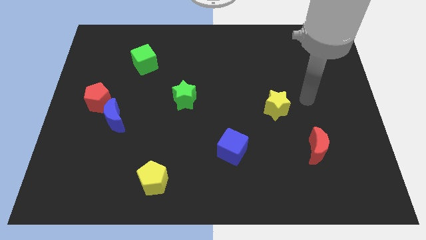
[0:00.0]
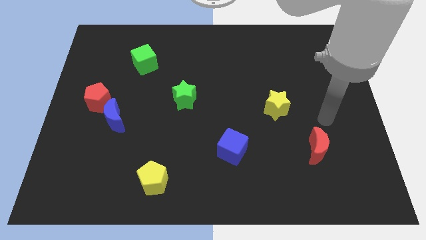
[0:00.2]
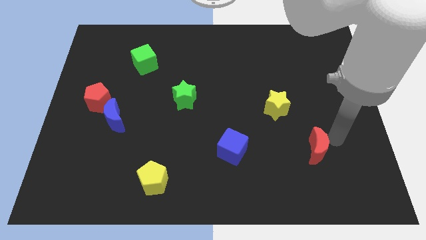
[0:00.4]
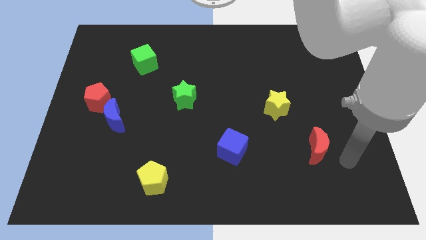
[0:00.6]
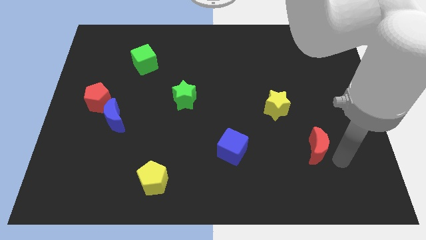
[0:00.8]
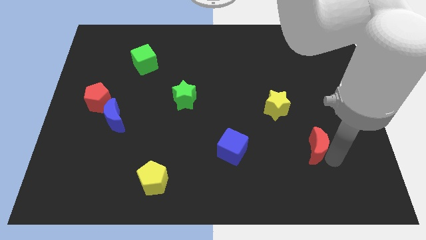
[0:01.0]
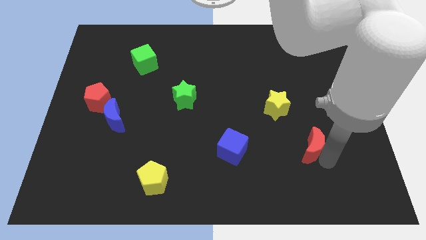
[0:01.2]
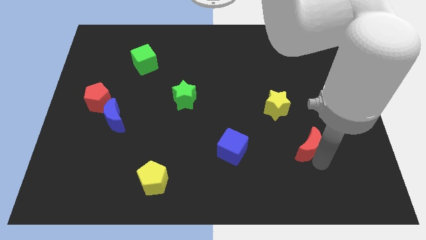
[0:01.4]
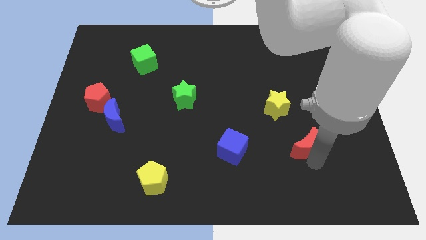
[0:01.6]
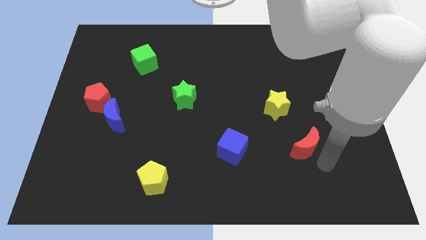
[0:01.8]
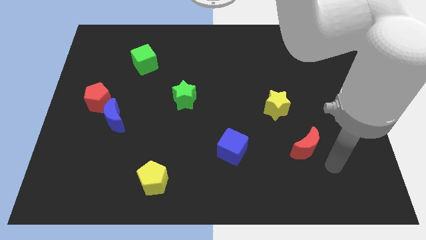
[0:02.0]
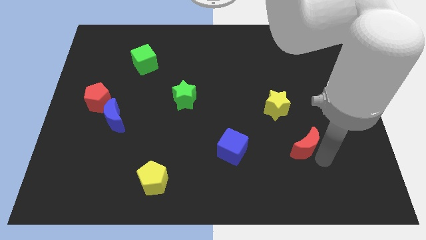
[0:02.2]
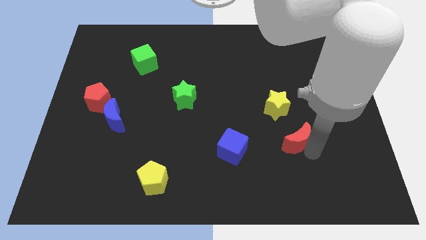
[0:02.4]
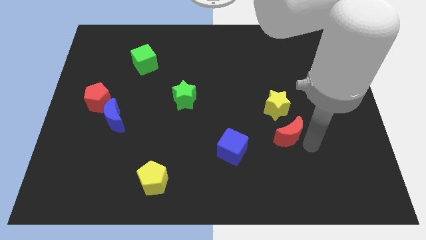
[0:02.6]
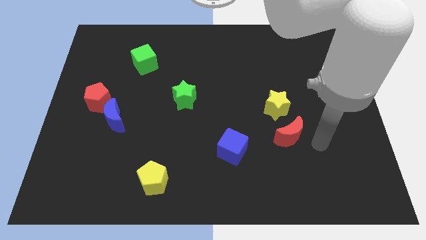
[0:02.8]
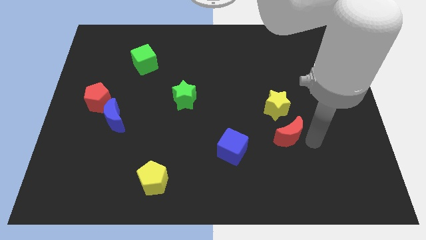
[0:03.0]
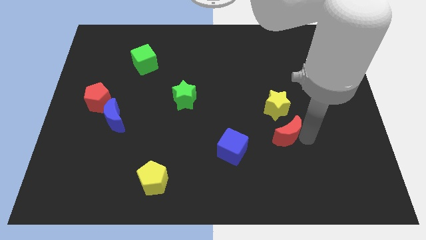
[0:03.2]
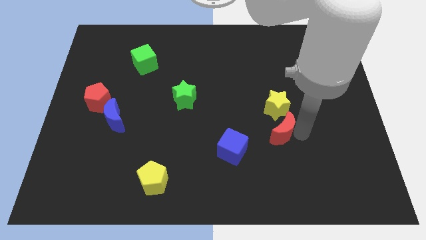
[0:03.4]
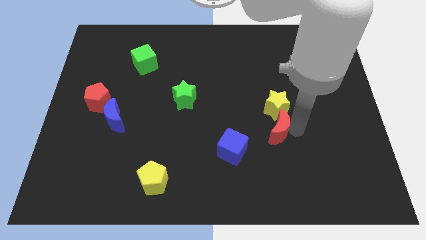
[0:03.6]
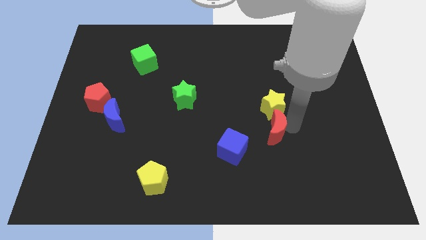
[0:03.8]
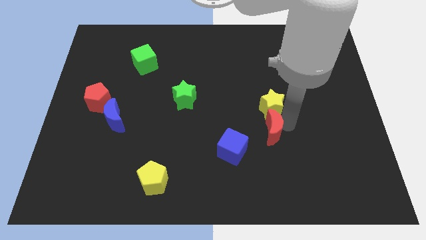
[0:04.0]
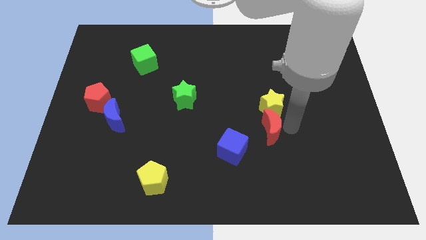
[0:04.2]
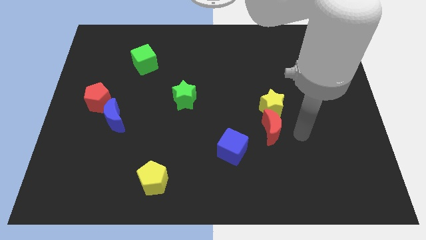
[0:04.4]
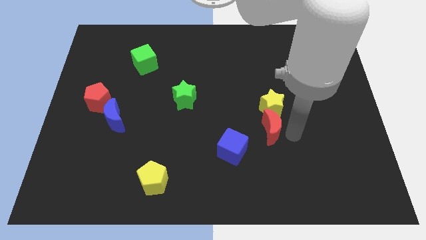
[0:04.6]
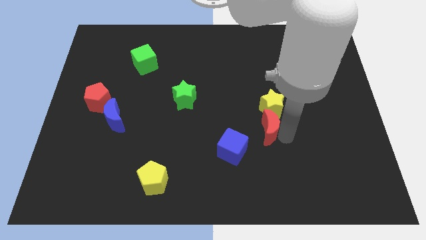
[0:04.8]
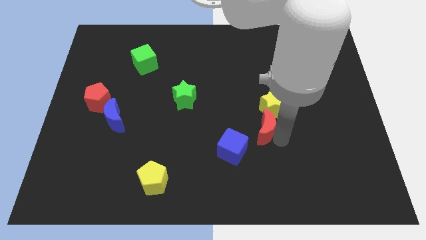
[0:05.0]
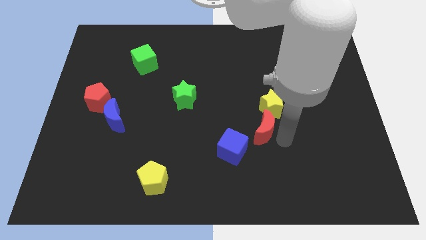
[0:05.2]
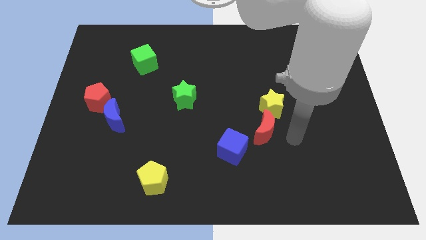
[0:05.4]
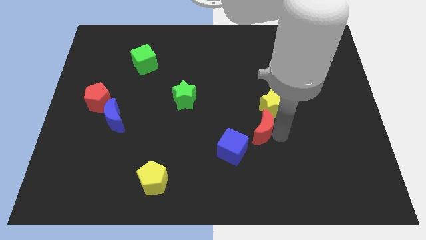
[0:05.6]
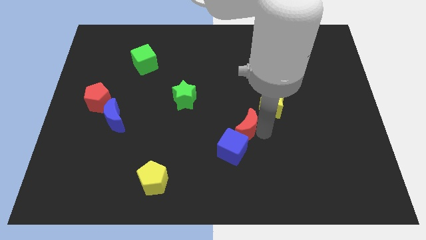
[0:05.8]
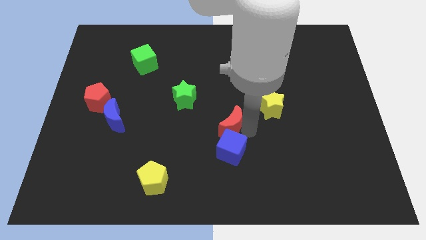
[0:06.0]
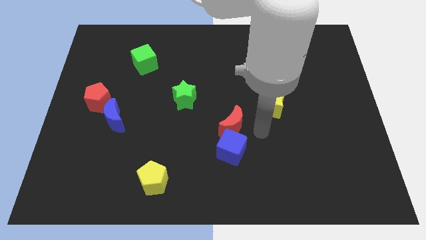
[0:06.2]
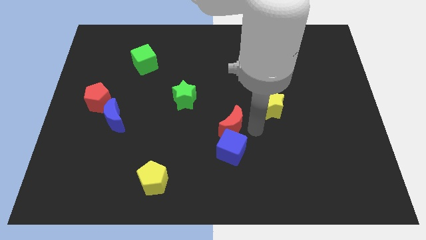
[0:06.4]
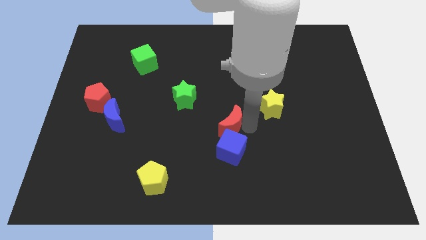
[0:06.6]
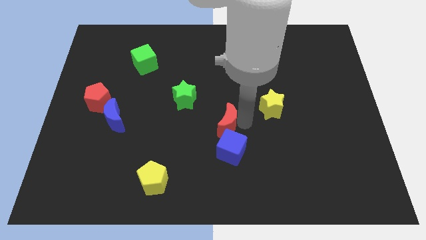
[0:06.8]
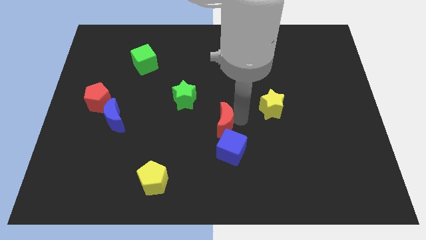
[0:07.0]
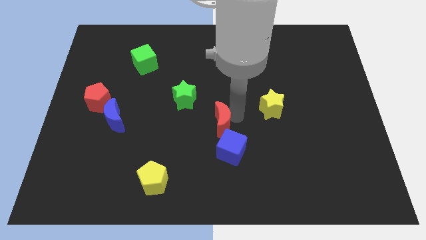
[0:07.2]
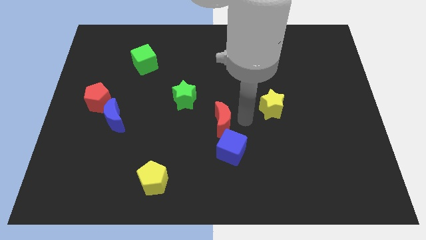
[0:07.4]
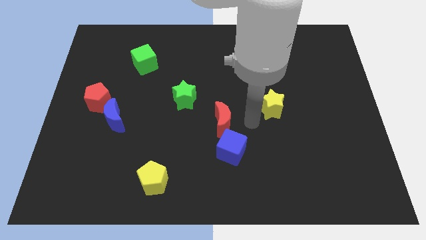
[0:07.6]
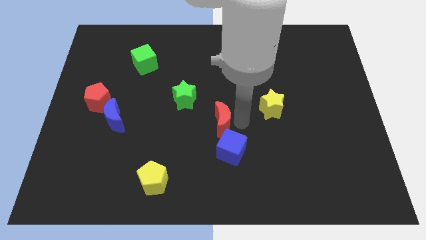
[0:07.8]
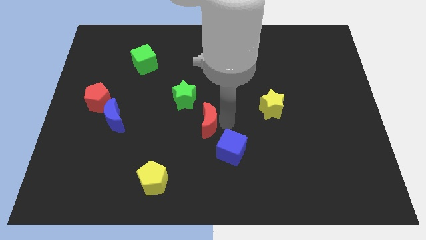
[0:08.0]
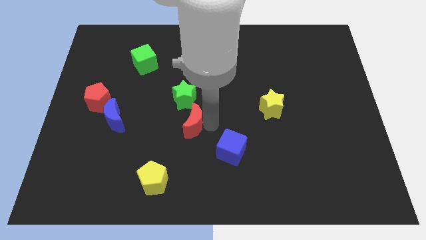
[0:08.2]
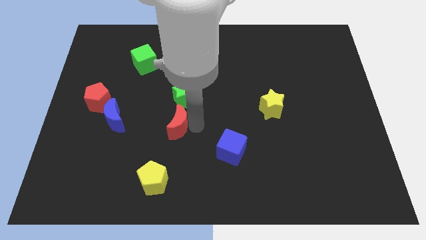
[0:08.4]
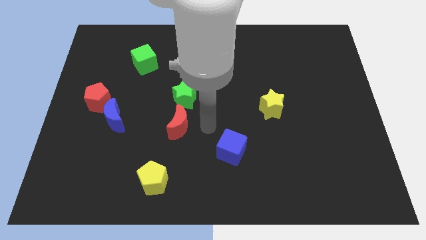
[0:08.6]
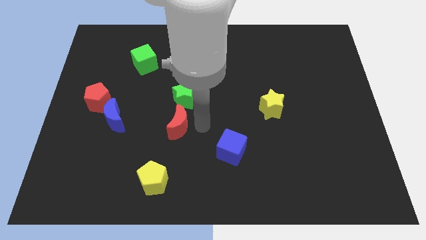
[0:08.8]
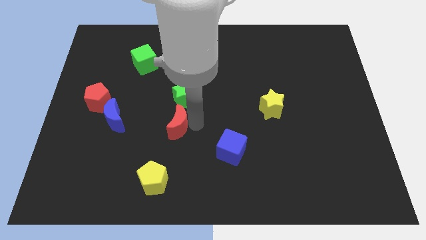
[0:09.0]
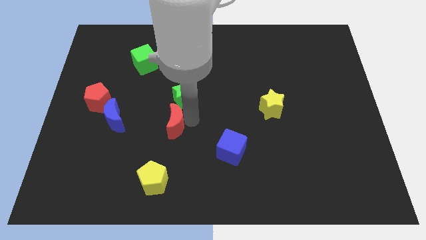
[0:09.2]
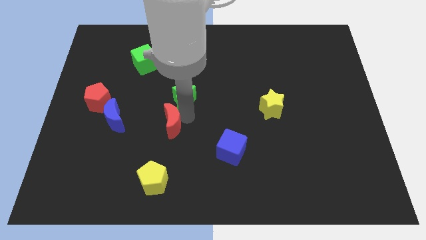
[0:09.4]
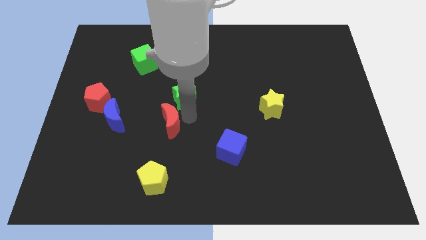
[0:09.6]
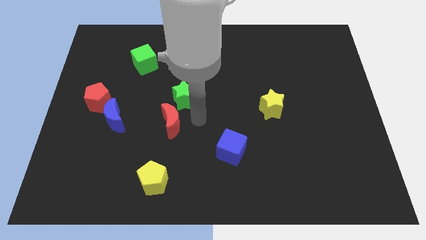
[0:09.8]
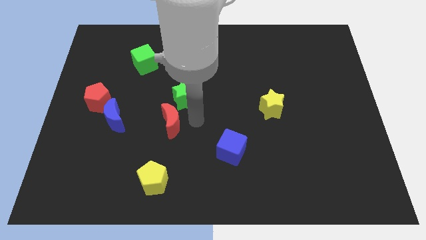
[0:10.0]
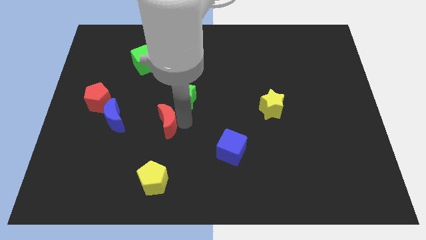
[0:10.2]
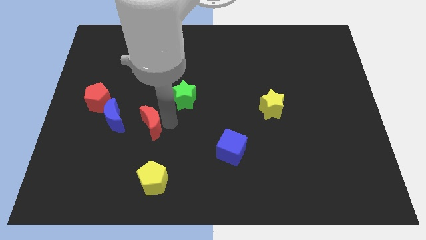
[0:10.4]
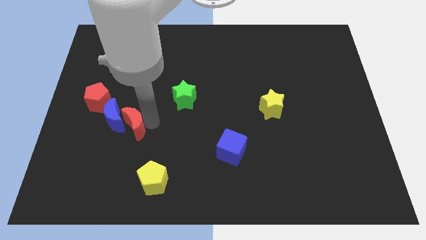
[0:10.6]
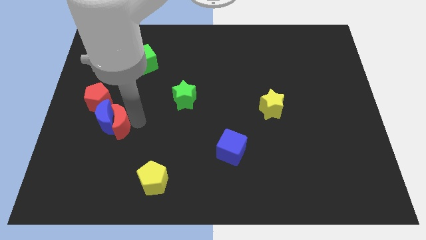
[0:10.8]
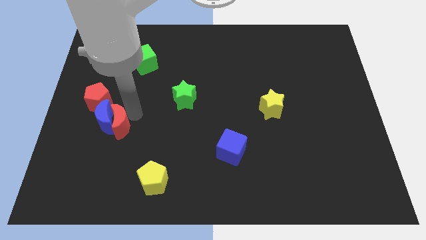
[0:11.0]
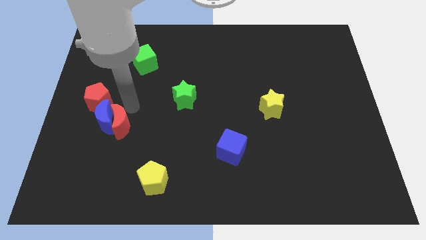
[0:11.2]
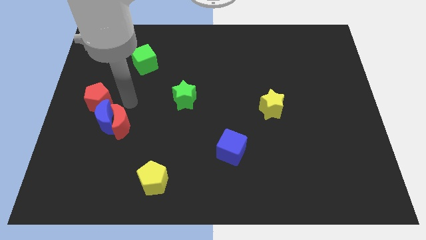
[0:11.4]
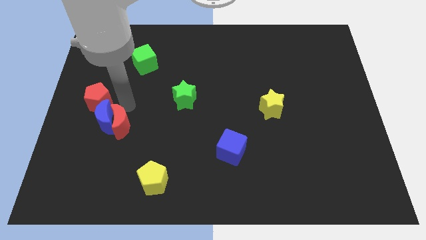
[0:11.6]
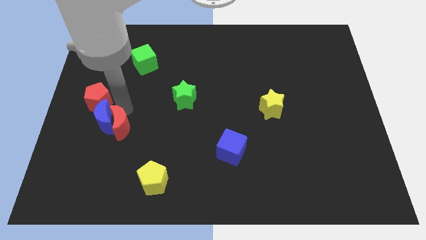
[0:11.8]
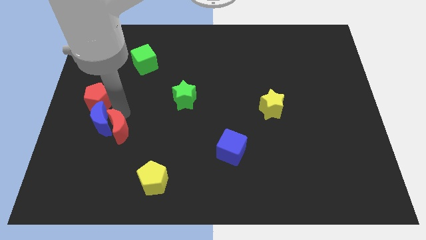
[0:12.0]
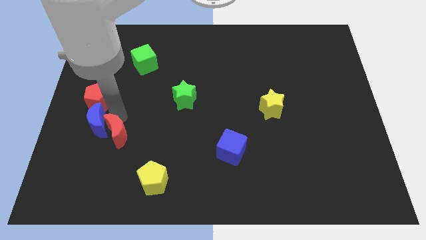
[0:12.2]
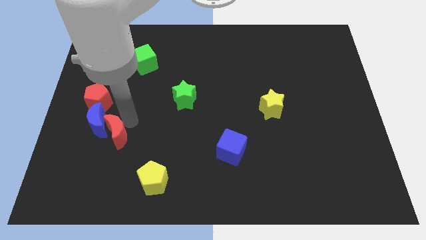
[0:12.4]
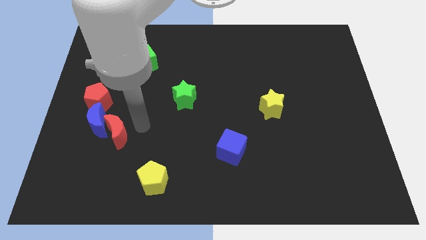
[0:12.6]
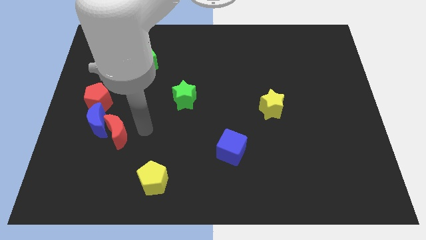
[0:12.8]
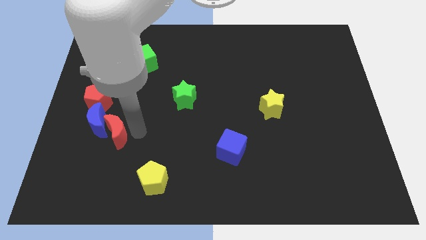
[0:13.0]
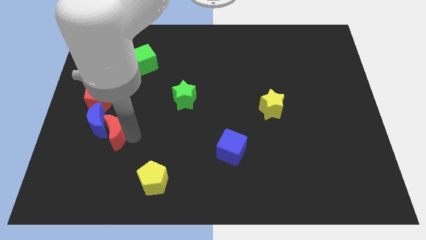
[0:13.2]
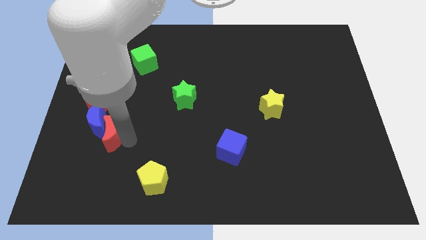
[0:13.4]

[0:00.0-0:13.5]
move the red moon below the red pentagon

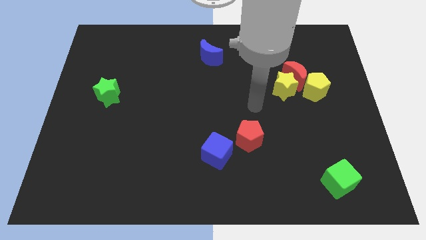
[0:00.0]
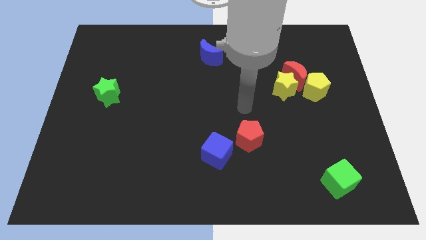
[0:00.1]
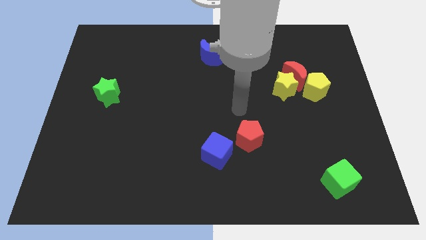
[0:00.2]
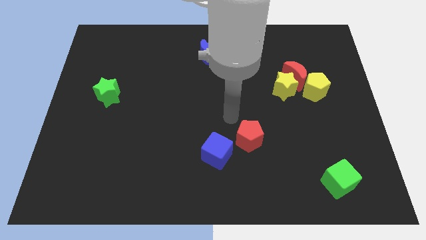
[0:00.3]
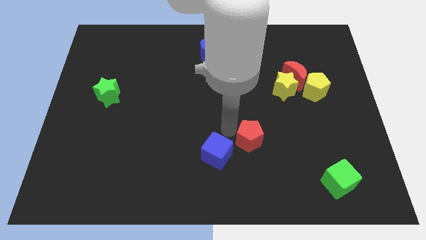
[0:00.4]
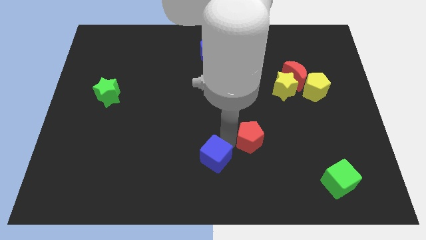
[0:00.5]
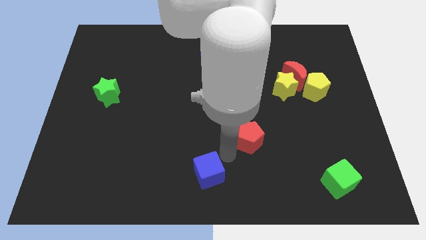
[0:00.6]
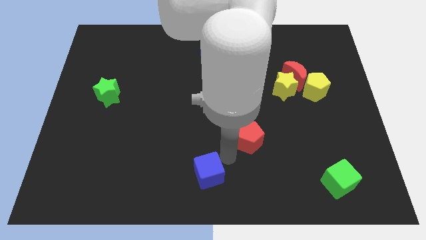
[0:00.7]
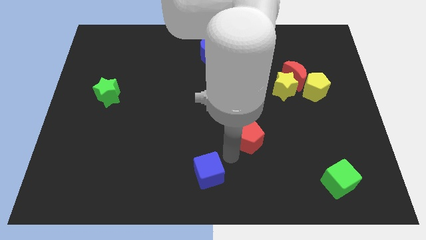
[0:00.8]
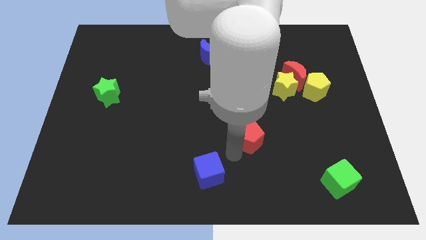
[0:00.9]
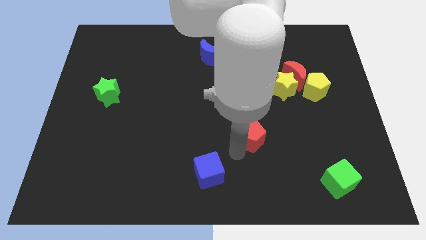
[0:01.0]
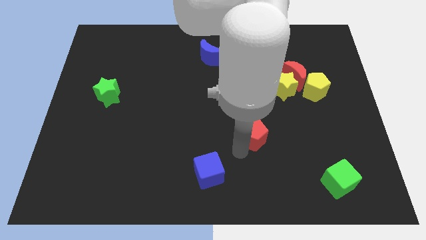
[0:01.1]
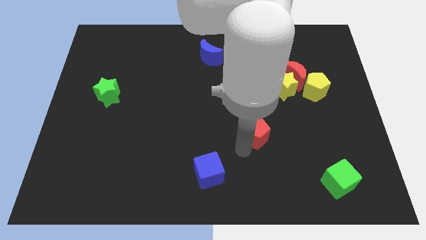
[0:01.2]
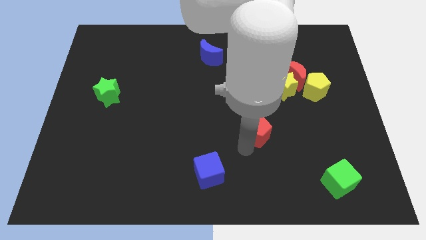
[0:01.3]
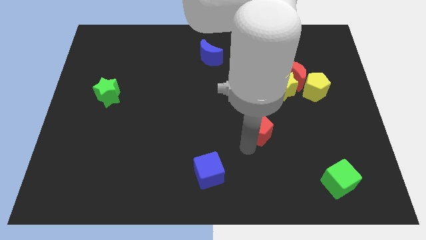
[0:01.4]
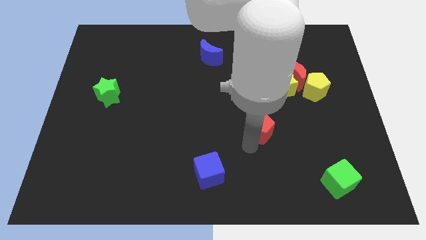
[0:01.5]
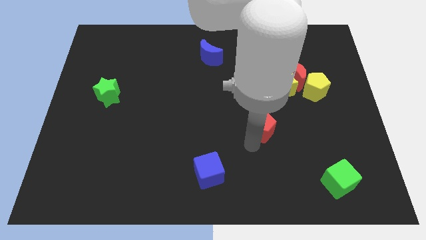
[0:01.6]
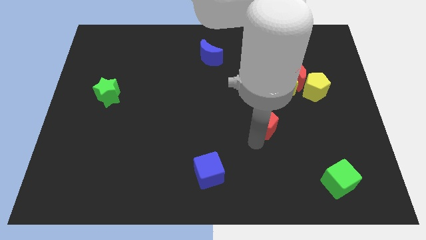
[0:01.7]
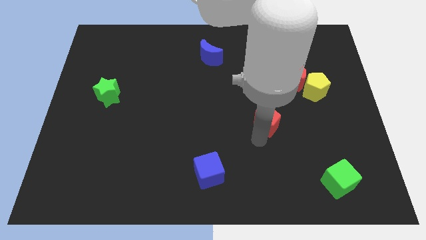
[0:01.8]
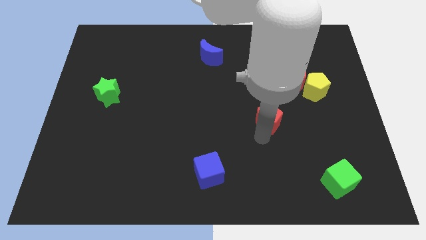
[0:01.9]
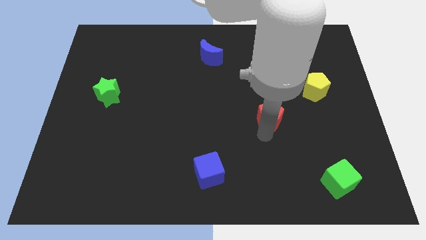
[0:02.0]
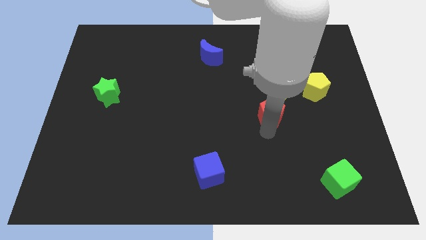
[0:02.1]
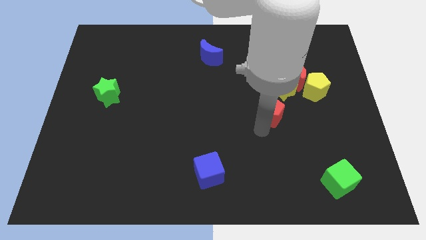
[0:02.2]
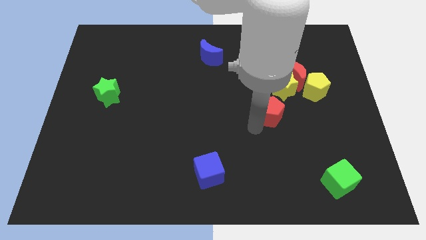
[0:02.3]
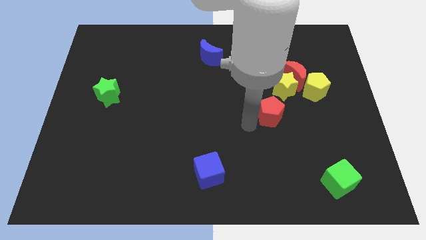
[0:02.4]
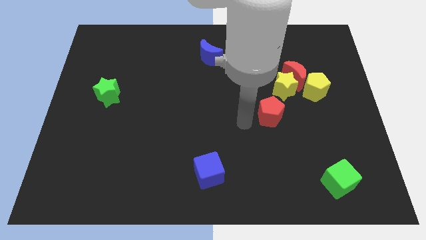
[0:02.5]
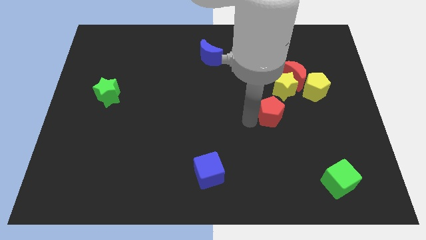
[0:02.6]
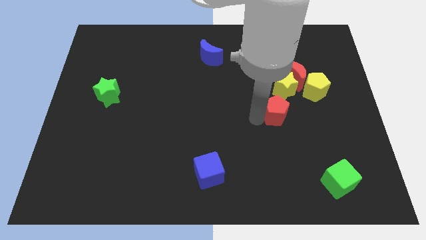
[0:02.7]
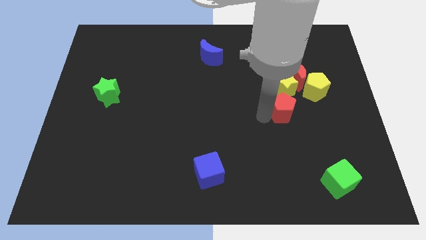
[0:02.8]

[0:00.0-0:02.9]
push the red pentagon to the bottom left of the yellow pentagon
